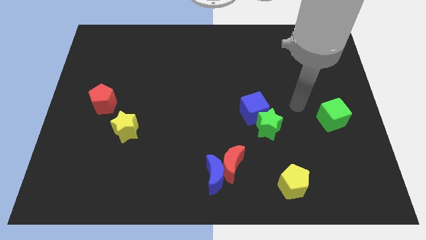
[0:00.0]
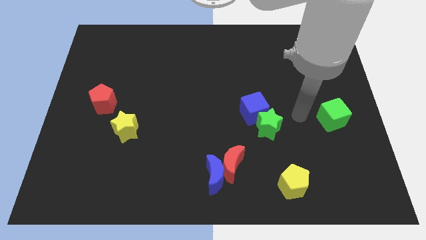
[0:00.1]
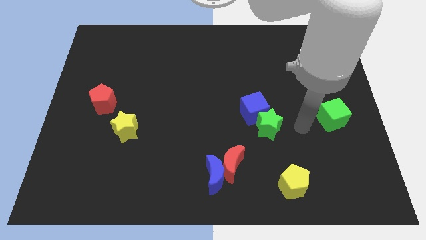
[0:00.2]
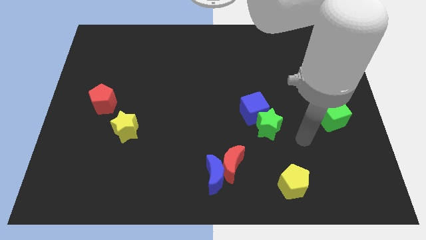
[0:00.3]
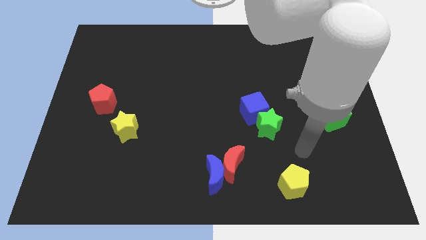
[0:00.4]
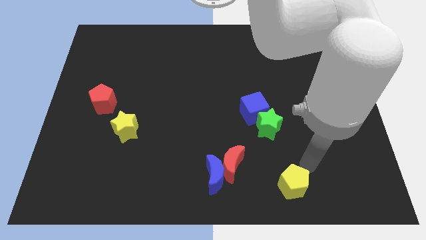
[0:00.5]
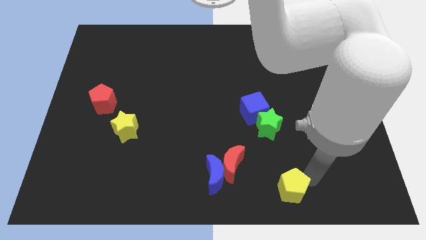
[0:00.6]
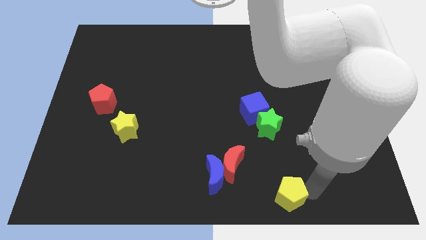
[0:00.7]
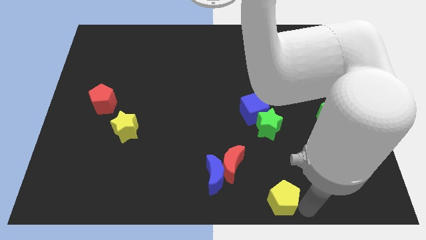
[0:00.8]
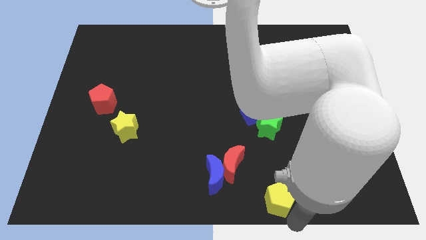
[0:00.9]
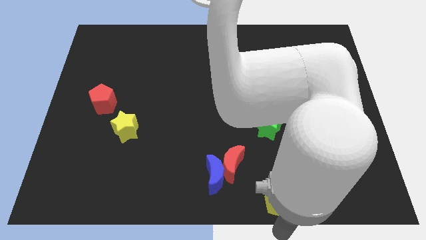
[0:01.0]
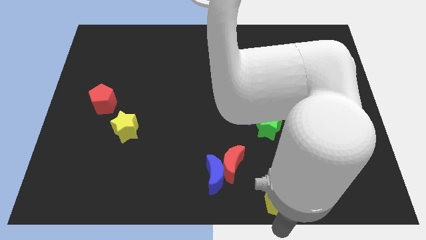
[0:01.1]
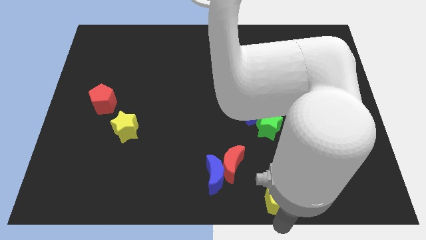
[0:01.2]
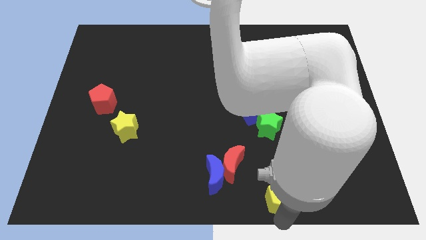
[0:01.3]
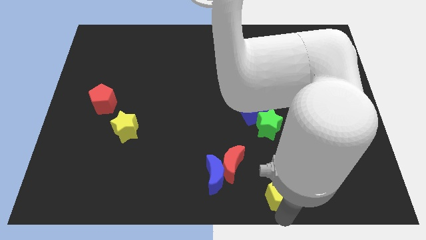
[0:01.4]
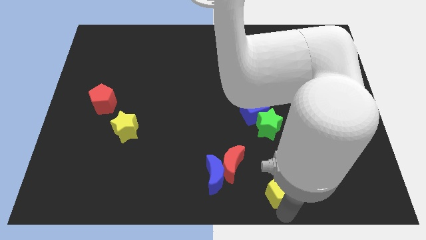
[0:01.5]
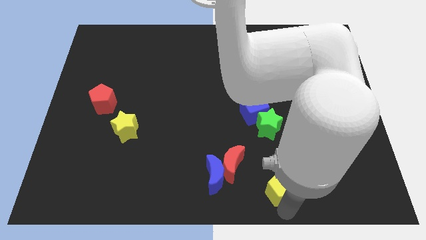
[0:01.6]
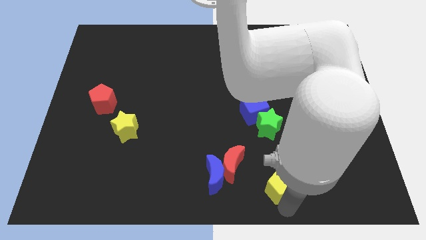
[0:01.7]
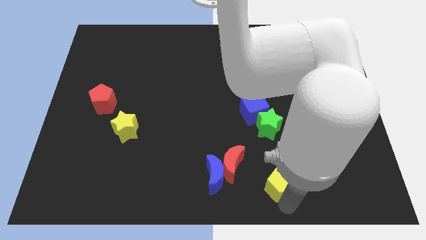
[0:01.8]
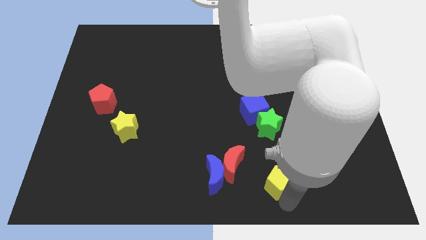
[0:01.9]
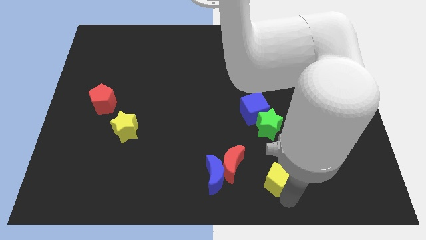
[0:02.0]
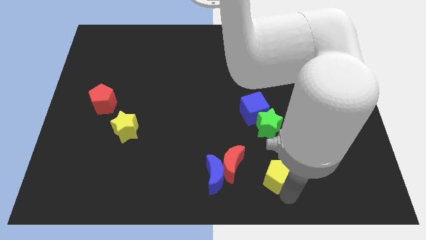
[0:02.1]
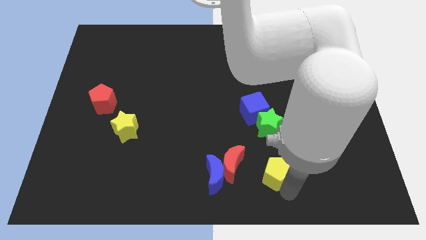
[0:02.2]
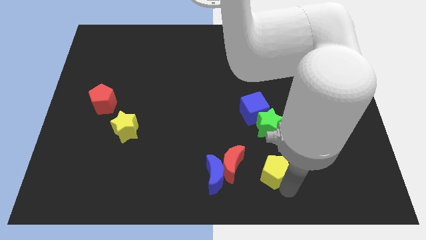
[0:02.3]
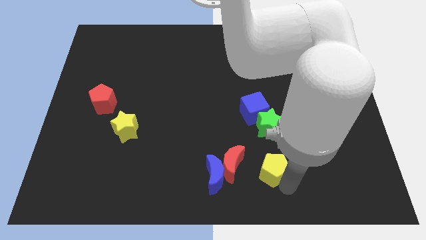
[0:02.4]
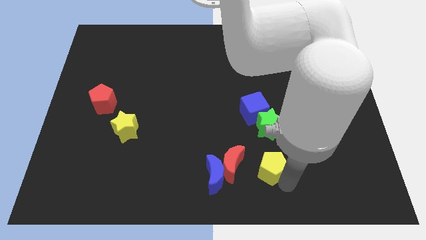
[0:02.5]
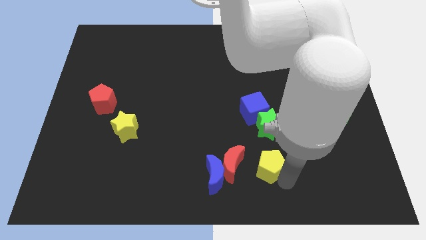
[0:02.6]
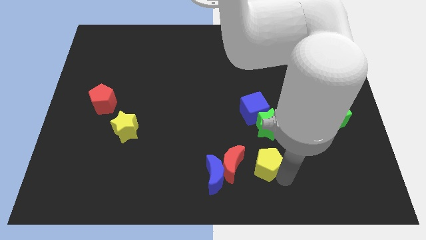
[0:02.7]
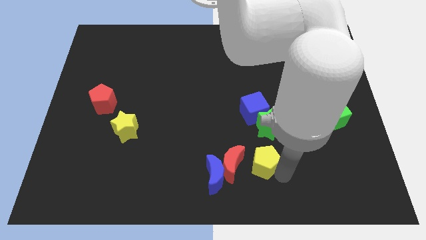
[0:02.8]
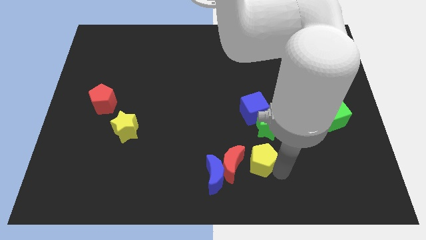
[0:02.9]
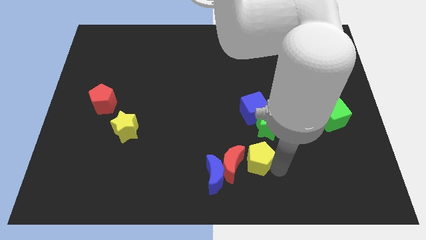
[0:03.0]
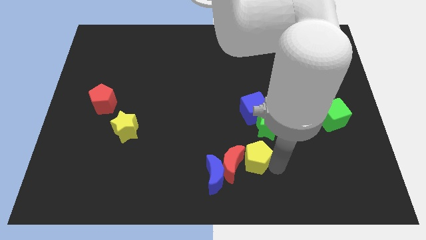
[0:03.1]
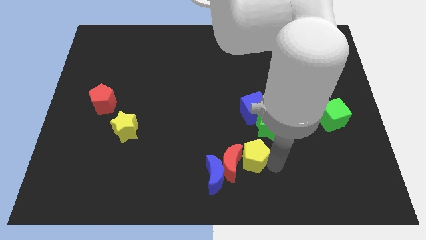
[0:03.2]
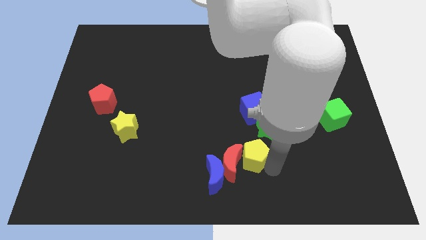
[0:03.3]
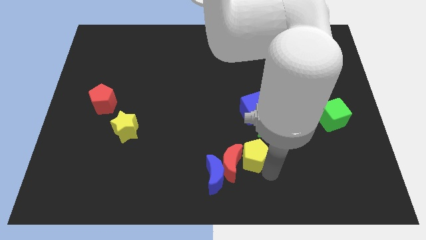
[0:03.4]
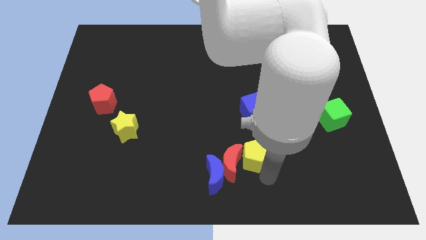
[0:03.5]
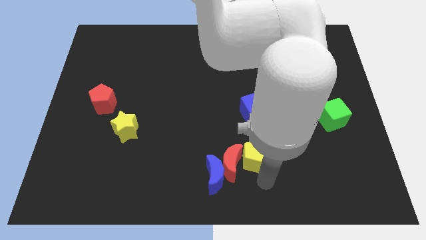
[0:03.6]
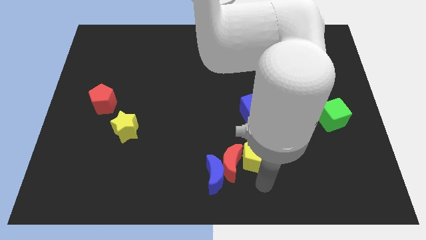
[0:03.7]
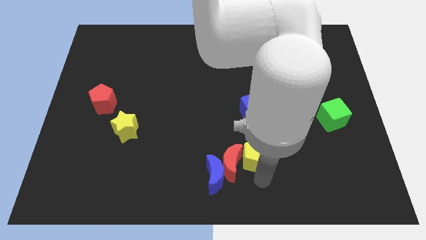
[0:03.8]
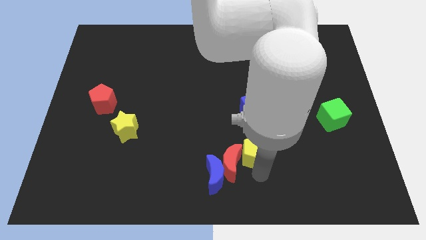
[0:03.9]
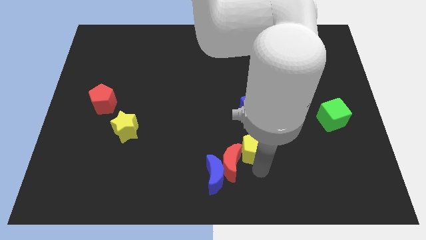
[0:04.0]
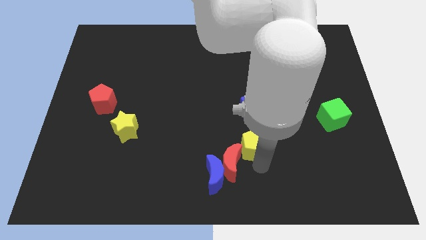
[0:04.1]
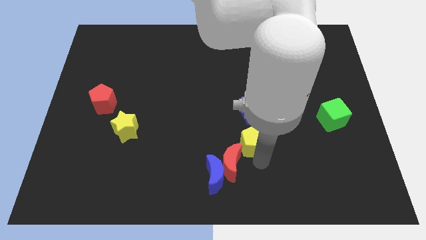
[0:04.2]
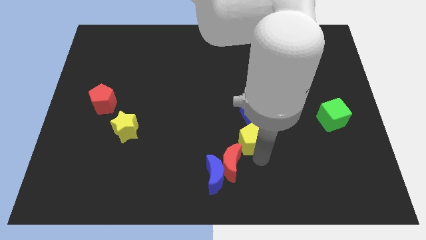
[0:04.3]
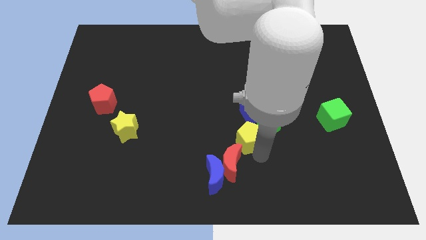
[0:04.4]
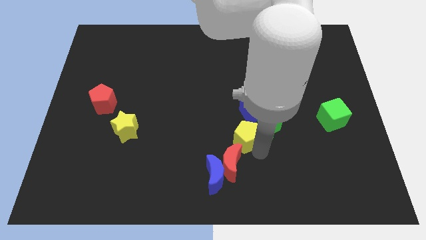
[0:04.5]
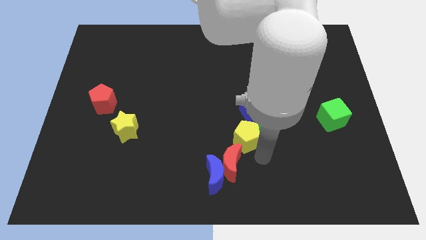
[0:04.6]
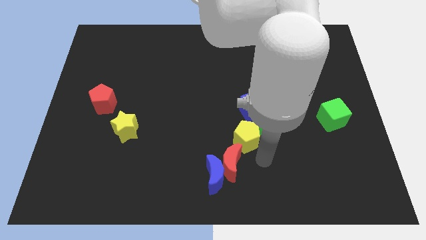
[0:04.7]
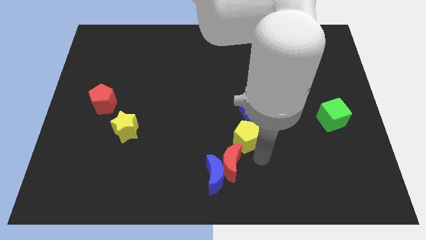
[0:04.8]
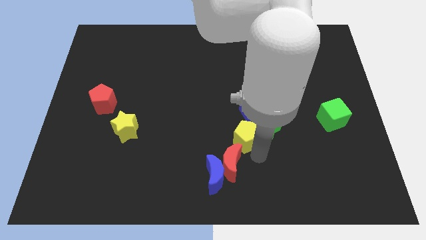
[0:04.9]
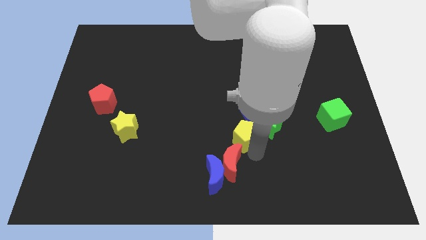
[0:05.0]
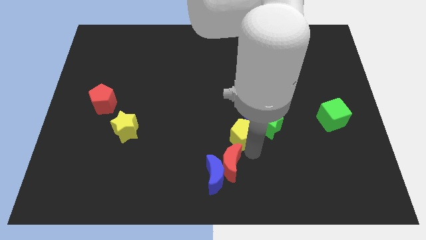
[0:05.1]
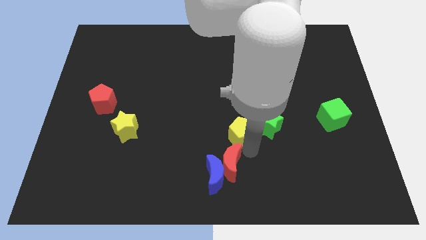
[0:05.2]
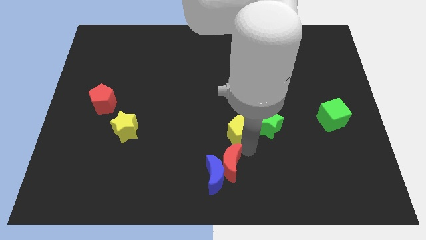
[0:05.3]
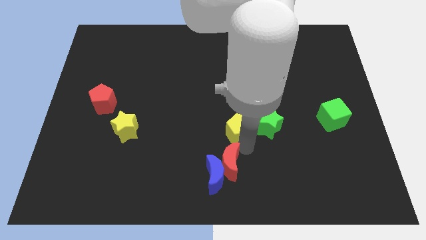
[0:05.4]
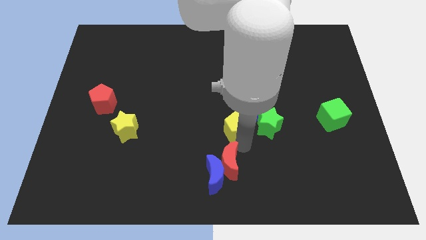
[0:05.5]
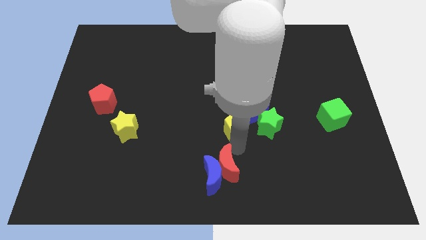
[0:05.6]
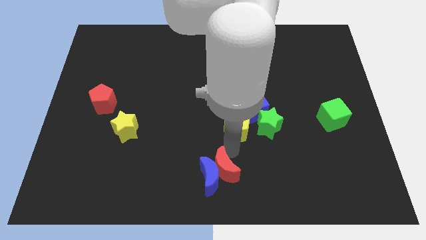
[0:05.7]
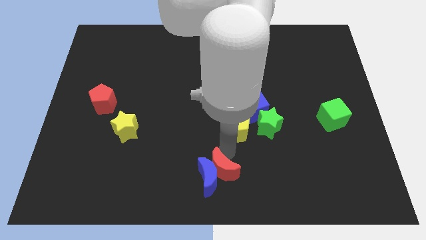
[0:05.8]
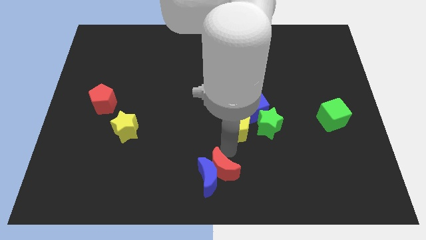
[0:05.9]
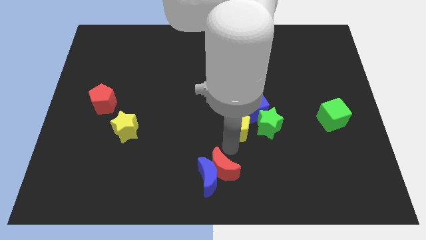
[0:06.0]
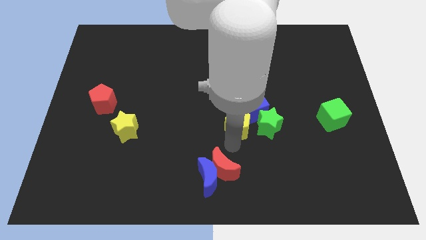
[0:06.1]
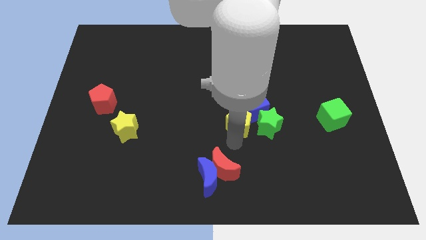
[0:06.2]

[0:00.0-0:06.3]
move the yellow pentagon to the top left of the green star

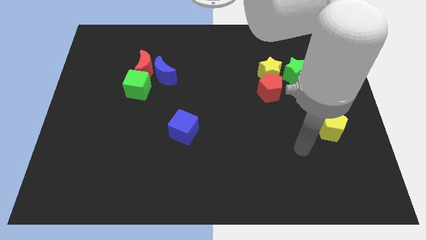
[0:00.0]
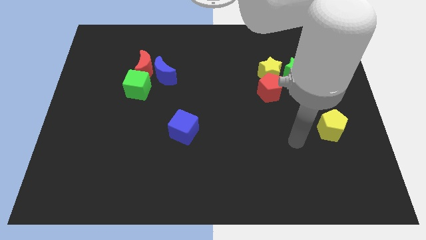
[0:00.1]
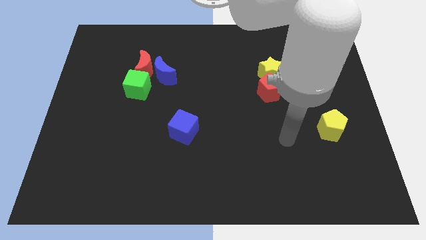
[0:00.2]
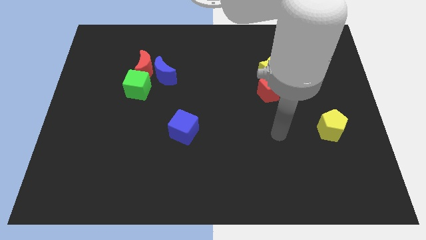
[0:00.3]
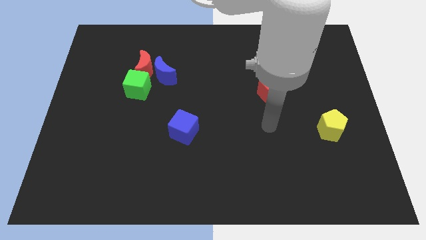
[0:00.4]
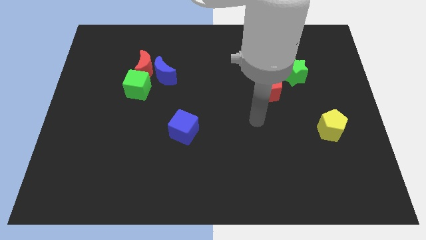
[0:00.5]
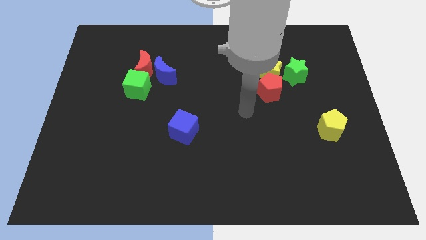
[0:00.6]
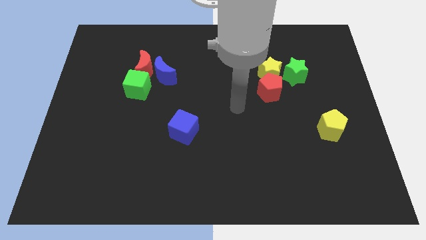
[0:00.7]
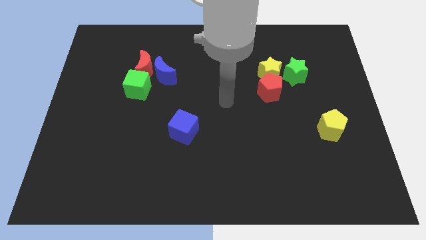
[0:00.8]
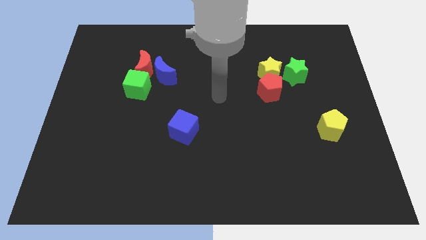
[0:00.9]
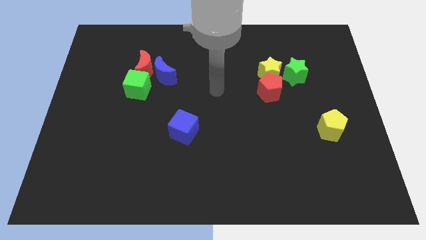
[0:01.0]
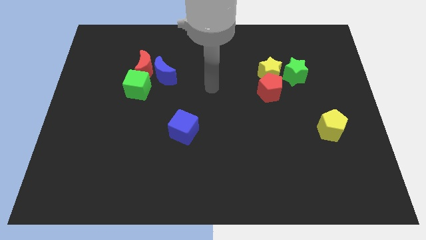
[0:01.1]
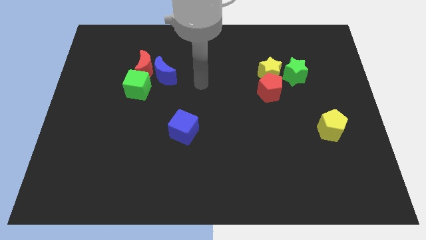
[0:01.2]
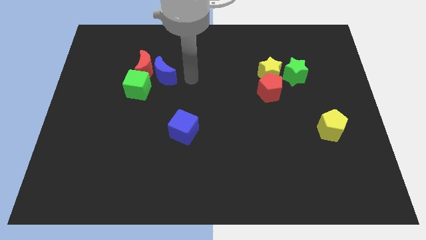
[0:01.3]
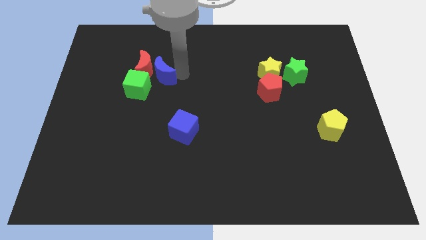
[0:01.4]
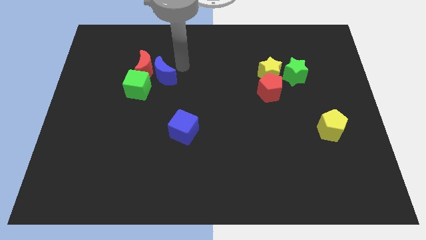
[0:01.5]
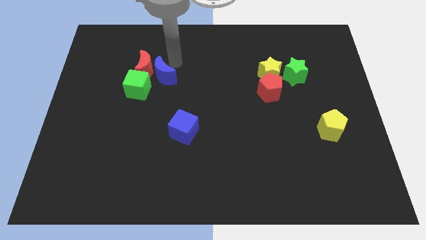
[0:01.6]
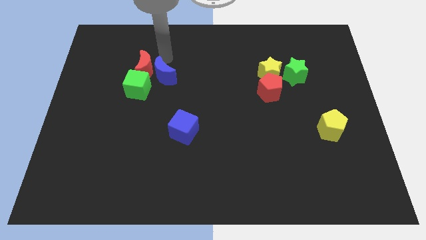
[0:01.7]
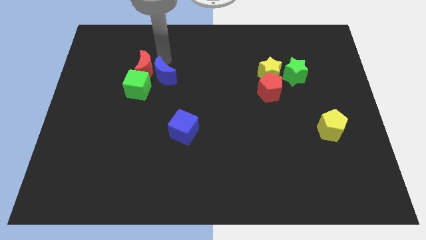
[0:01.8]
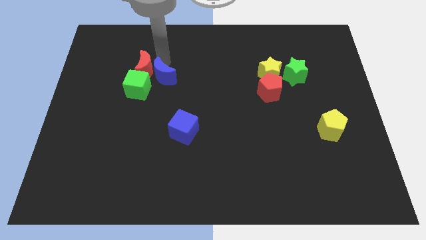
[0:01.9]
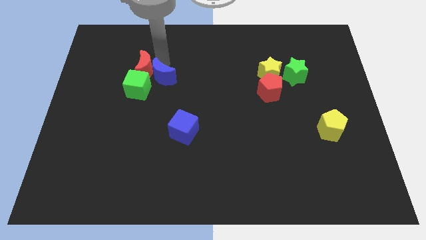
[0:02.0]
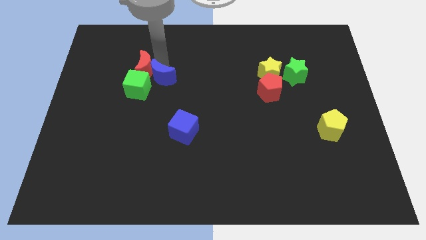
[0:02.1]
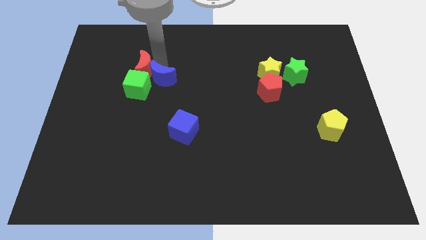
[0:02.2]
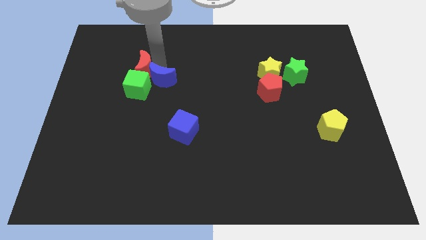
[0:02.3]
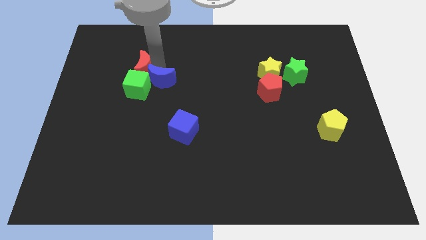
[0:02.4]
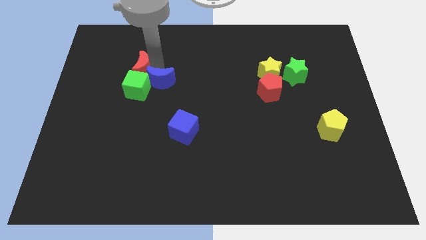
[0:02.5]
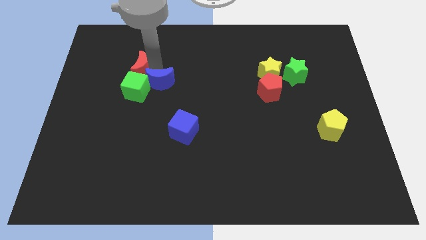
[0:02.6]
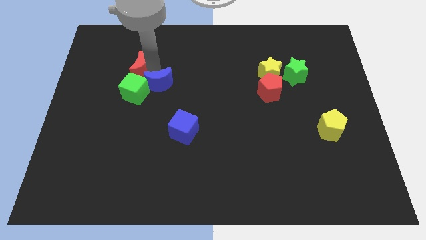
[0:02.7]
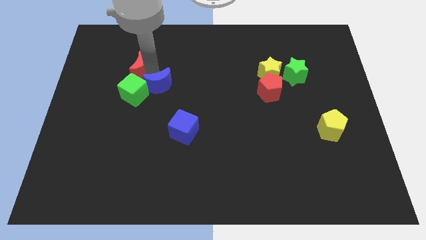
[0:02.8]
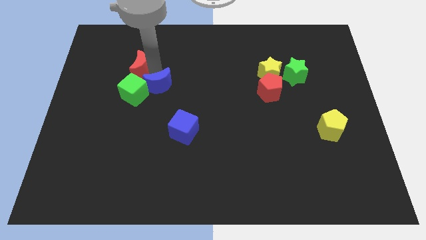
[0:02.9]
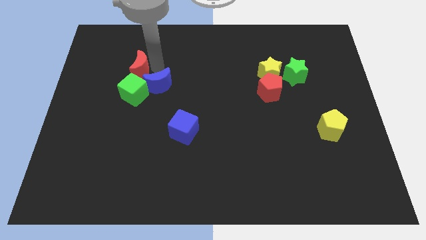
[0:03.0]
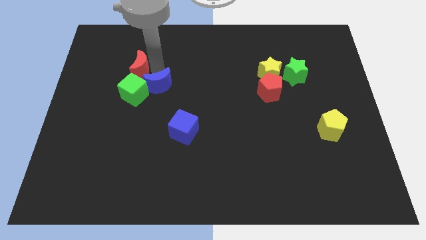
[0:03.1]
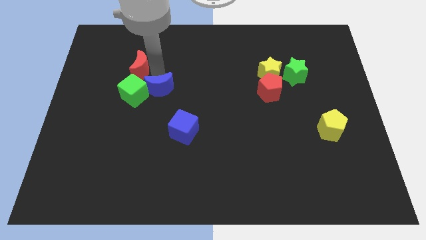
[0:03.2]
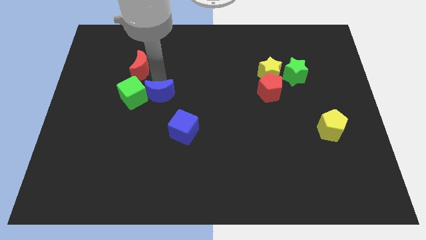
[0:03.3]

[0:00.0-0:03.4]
move the blue moon to the top left side of the blue cube
